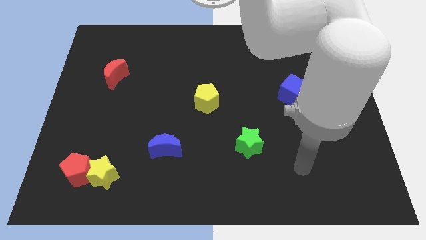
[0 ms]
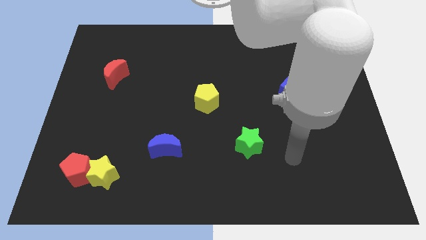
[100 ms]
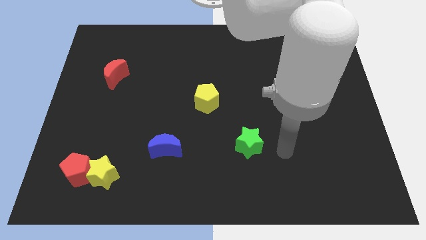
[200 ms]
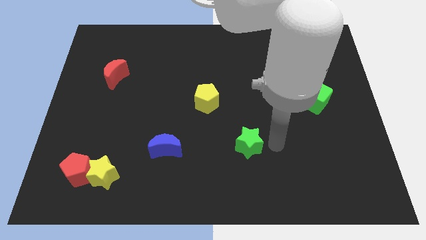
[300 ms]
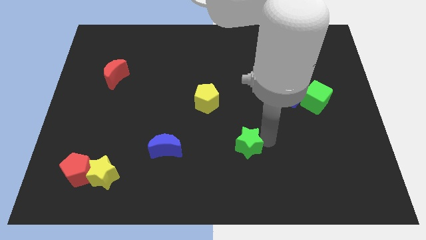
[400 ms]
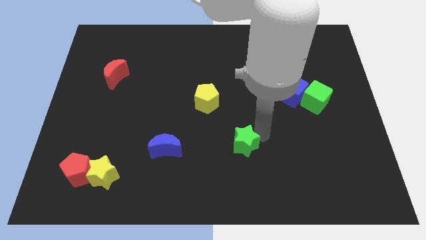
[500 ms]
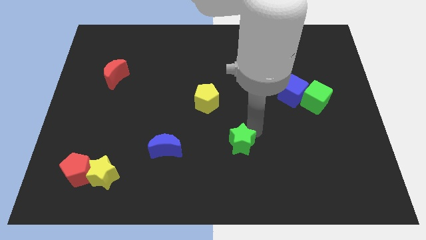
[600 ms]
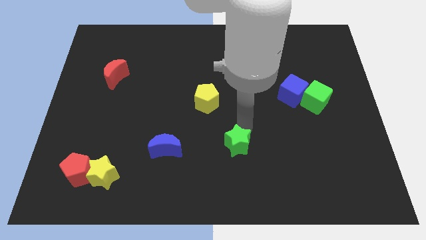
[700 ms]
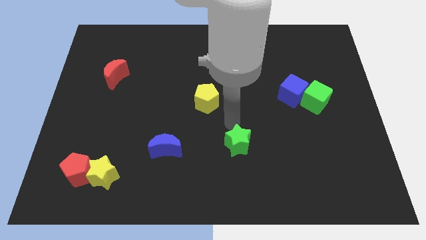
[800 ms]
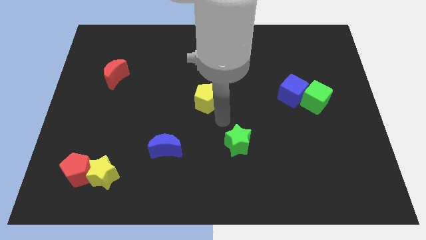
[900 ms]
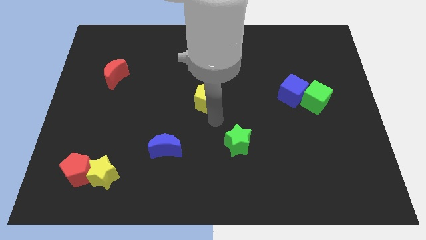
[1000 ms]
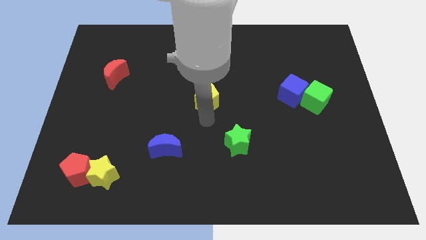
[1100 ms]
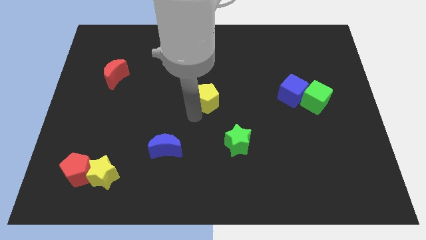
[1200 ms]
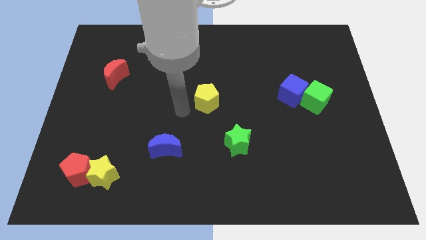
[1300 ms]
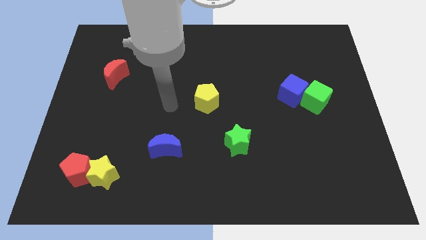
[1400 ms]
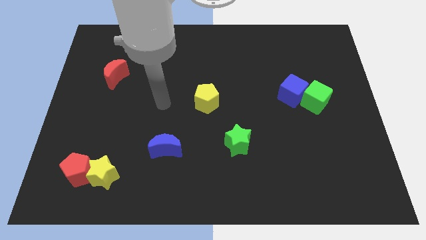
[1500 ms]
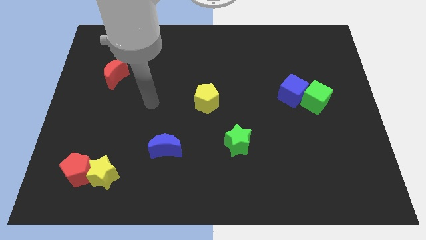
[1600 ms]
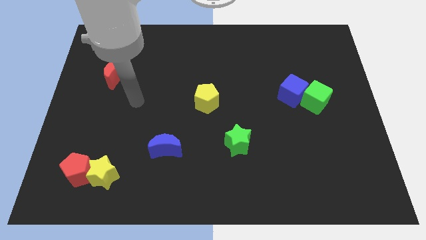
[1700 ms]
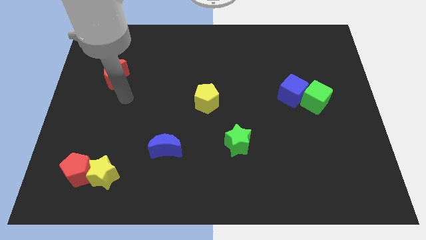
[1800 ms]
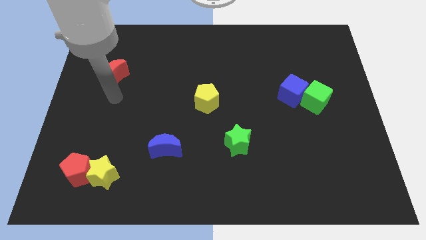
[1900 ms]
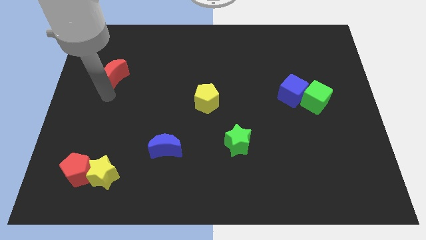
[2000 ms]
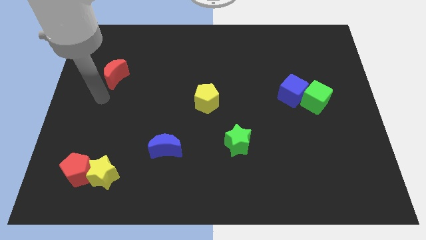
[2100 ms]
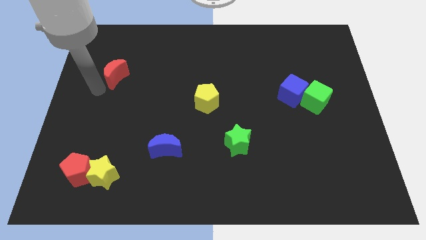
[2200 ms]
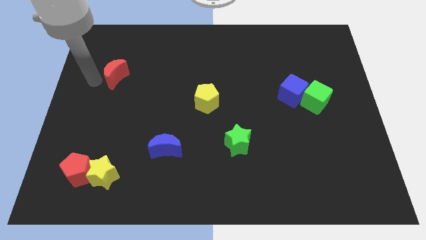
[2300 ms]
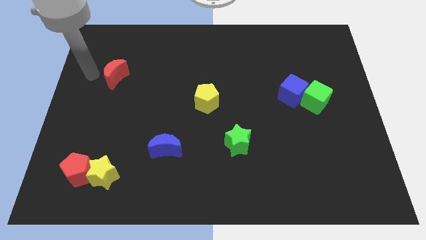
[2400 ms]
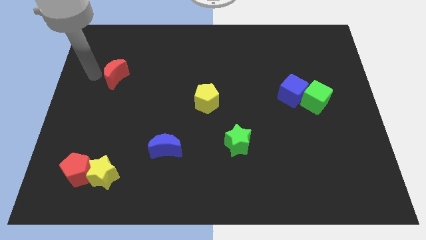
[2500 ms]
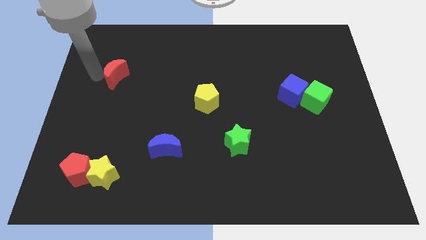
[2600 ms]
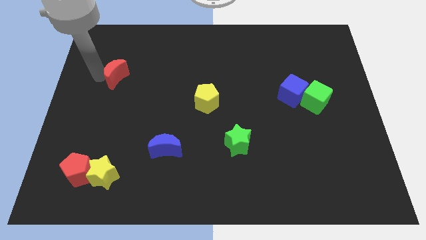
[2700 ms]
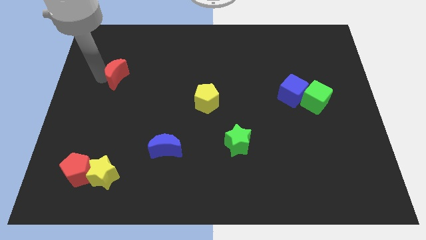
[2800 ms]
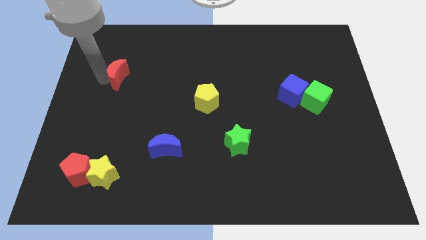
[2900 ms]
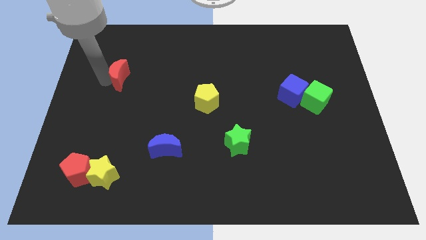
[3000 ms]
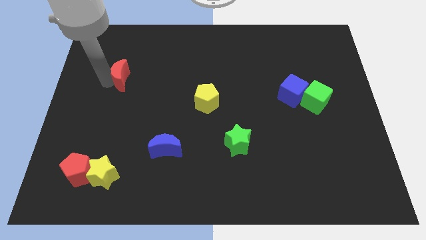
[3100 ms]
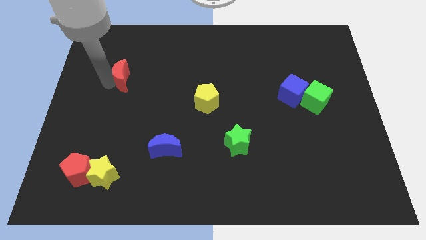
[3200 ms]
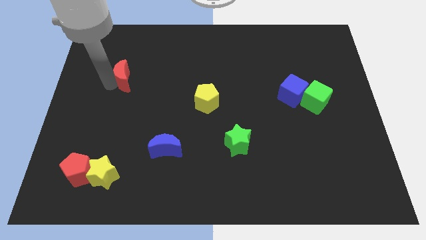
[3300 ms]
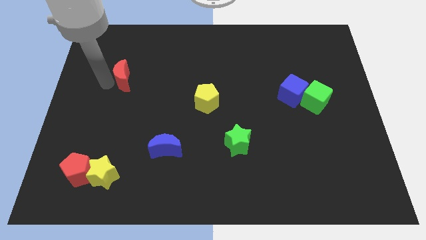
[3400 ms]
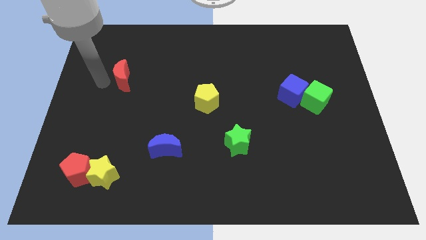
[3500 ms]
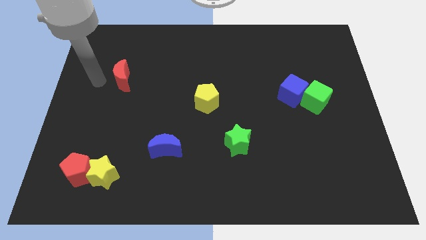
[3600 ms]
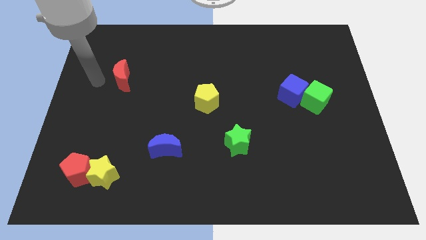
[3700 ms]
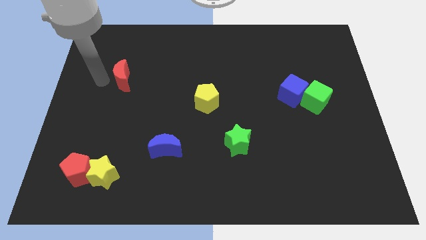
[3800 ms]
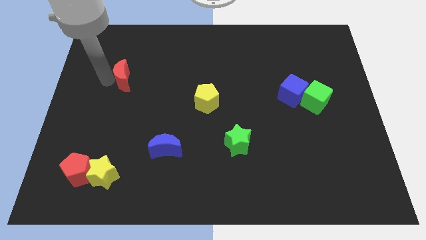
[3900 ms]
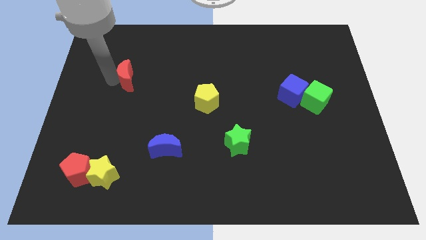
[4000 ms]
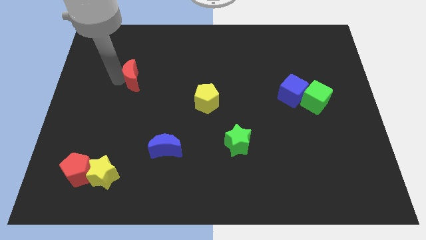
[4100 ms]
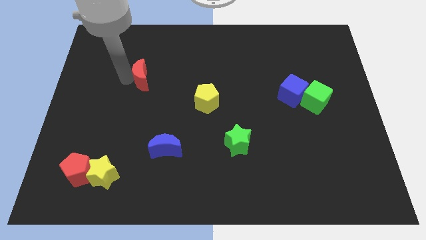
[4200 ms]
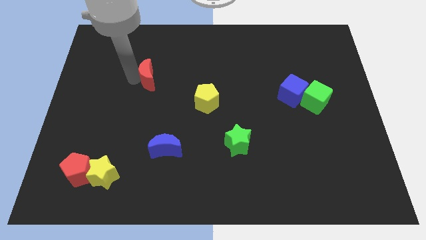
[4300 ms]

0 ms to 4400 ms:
move the red moon a little bit to the right

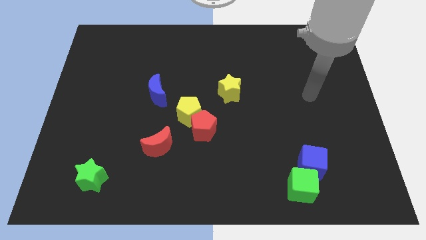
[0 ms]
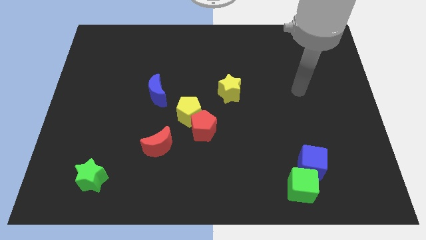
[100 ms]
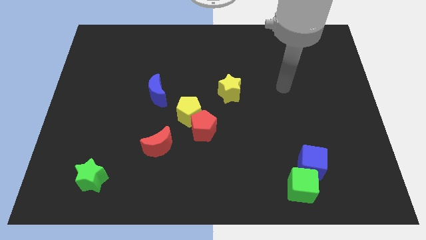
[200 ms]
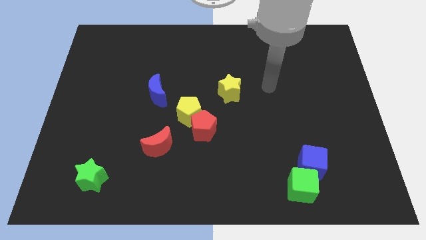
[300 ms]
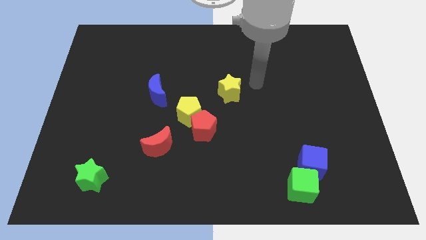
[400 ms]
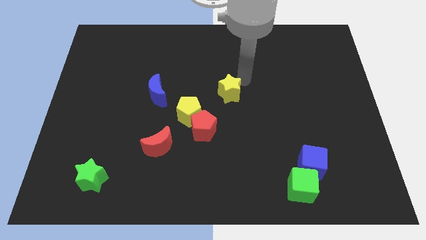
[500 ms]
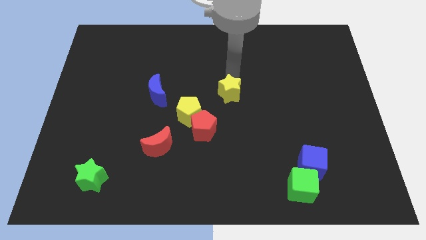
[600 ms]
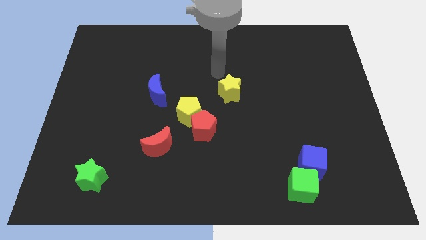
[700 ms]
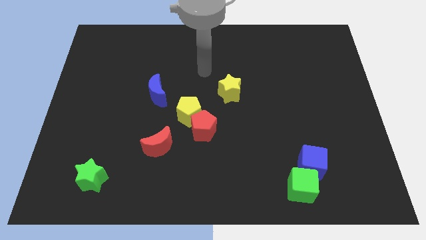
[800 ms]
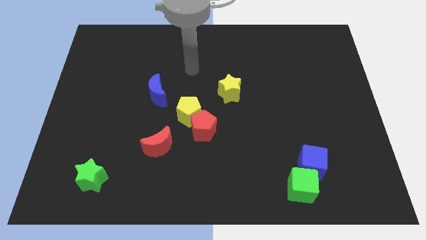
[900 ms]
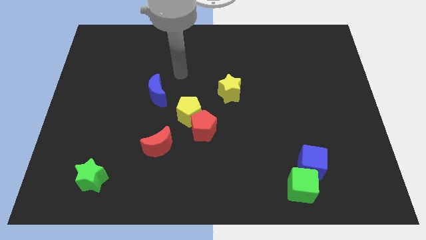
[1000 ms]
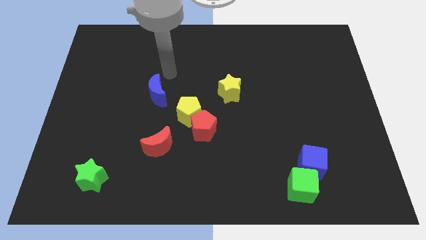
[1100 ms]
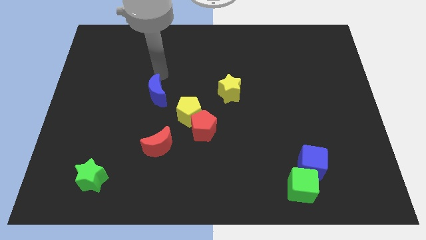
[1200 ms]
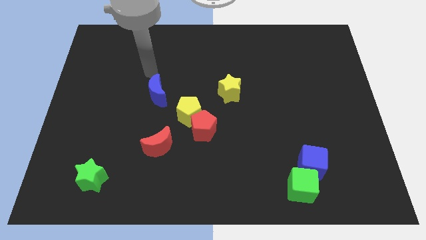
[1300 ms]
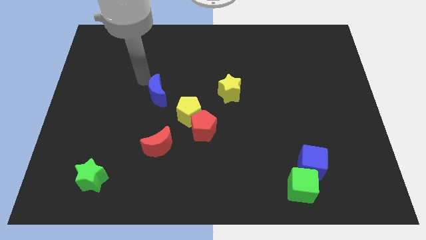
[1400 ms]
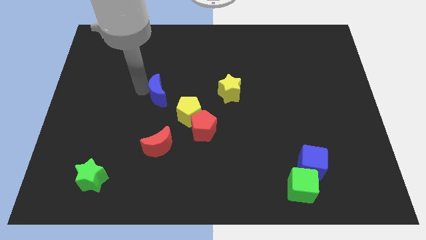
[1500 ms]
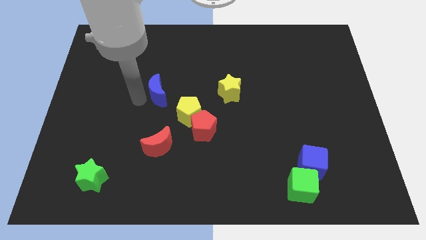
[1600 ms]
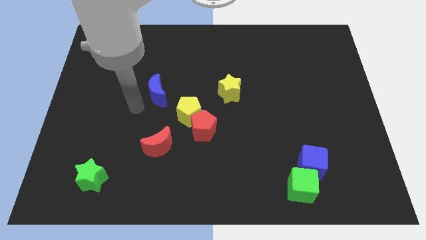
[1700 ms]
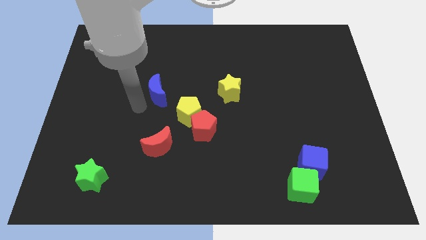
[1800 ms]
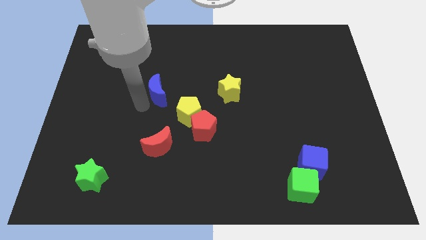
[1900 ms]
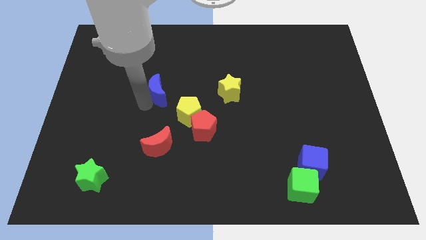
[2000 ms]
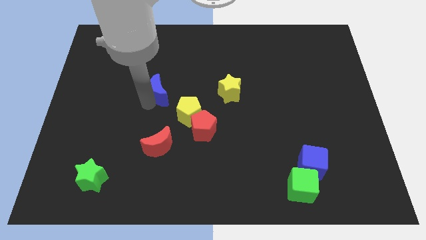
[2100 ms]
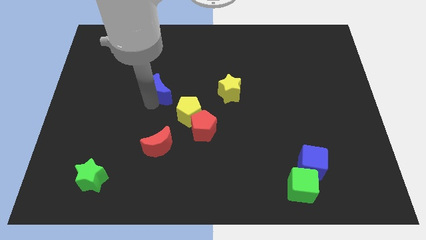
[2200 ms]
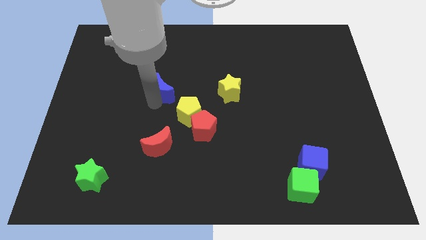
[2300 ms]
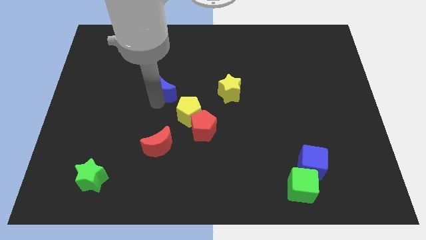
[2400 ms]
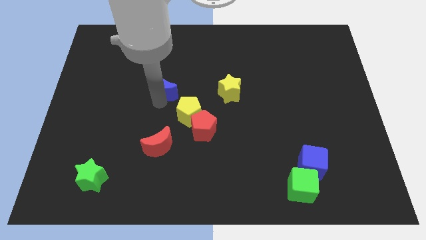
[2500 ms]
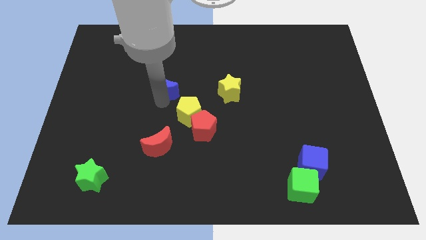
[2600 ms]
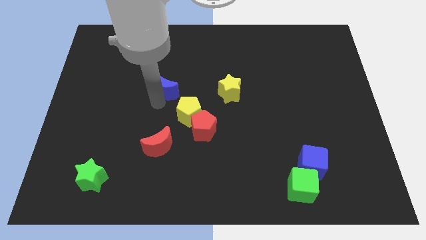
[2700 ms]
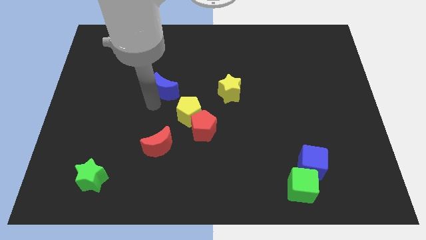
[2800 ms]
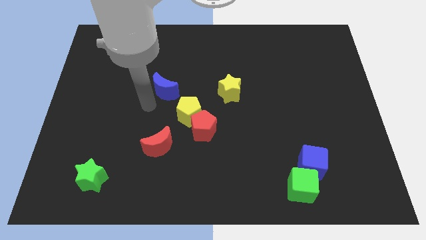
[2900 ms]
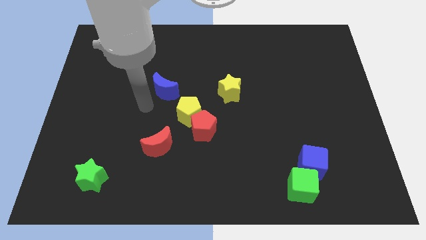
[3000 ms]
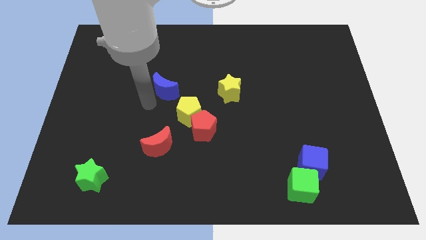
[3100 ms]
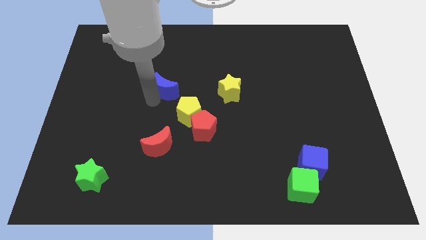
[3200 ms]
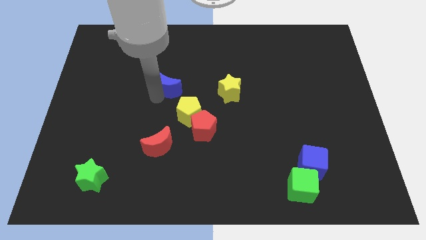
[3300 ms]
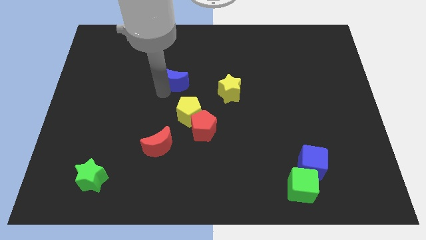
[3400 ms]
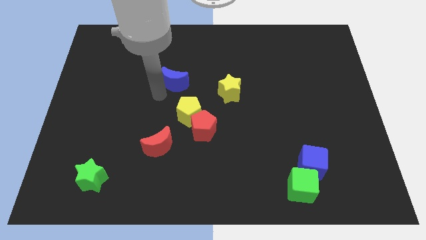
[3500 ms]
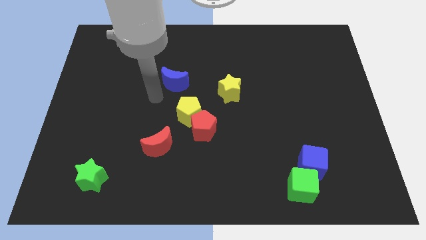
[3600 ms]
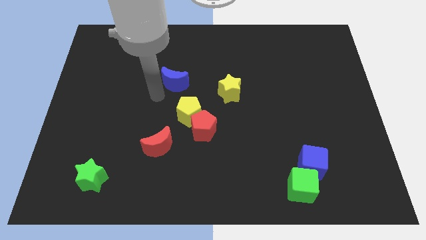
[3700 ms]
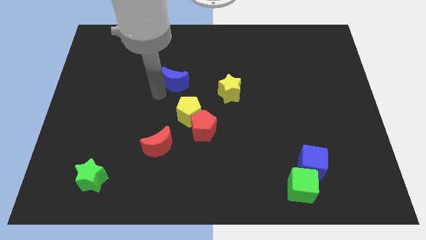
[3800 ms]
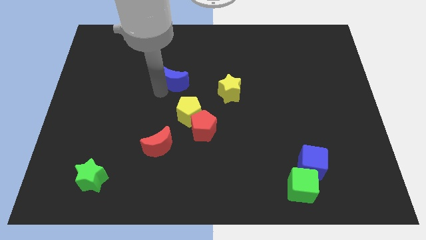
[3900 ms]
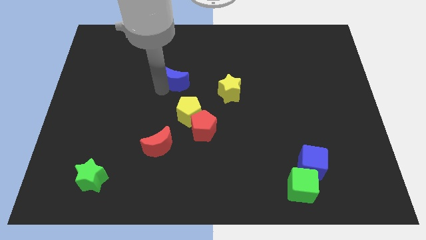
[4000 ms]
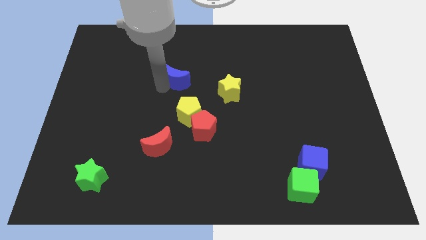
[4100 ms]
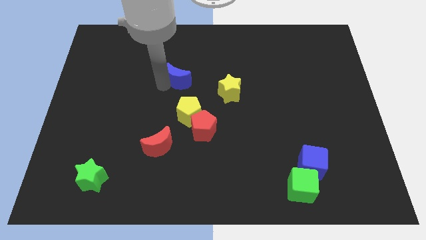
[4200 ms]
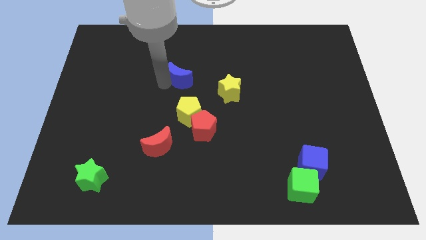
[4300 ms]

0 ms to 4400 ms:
slide the blue moon up and to the right diagonally a little
